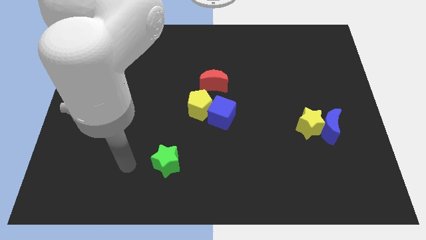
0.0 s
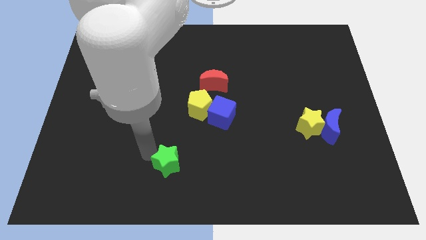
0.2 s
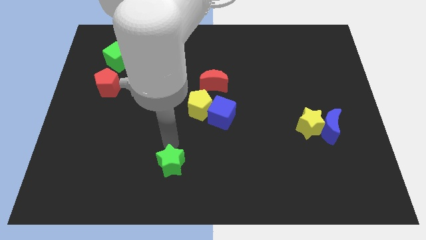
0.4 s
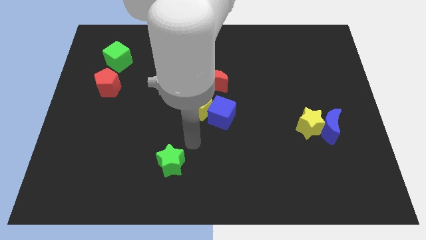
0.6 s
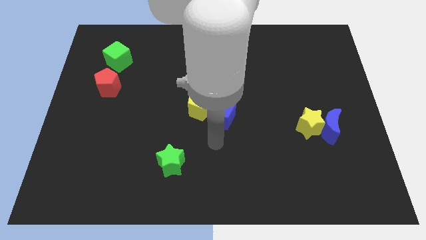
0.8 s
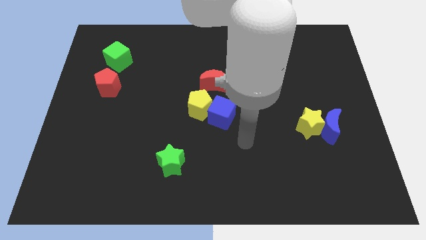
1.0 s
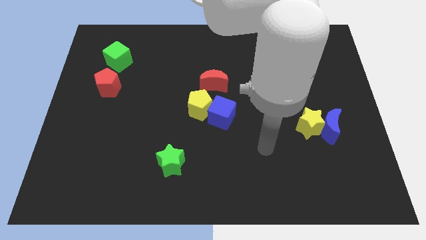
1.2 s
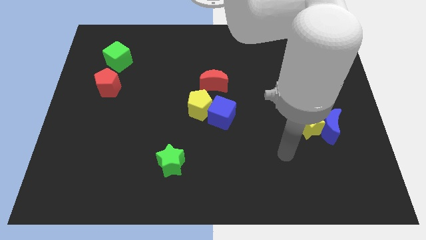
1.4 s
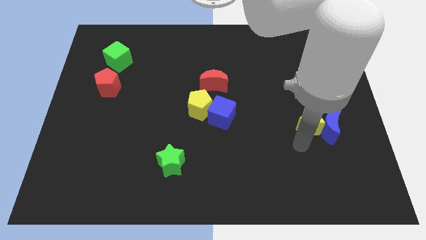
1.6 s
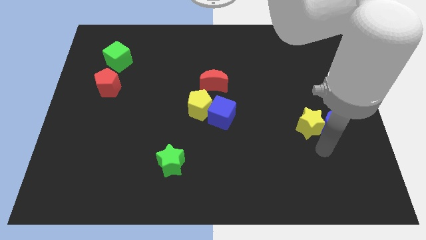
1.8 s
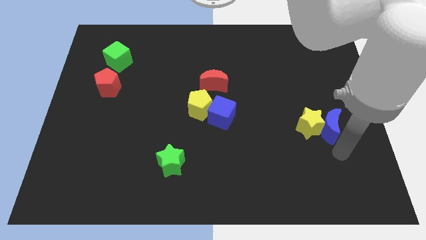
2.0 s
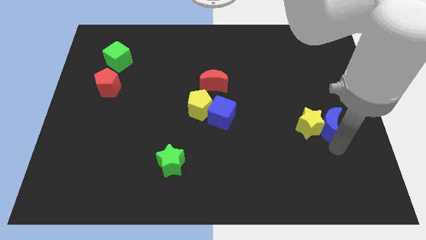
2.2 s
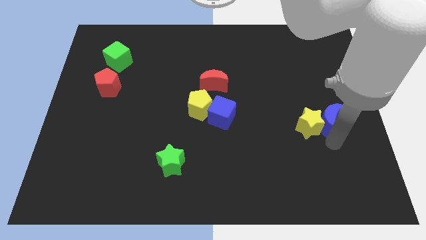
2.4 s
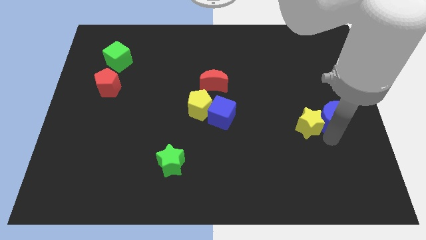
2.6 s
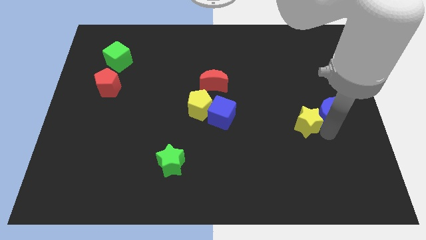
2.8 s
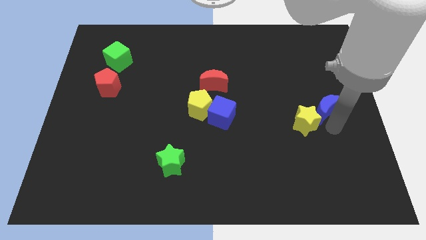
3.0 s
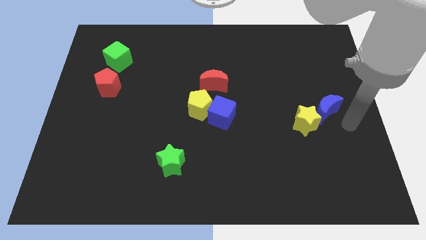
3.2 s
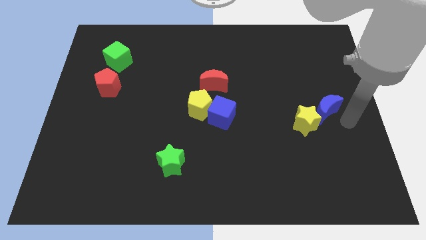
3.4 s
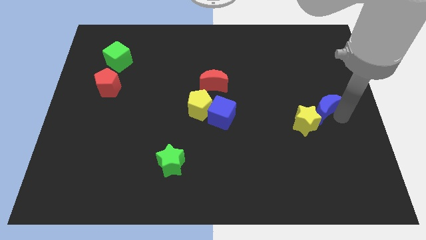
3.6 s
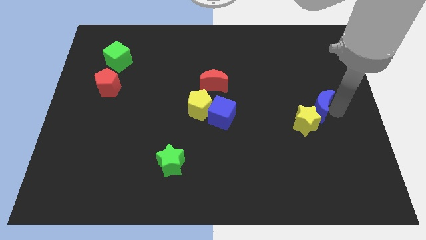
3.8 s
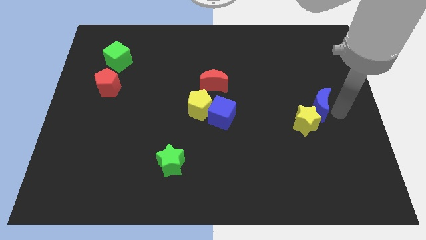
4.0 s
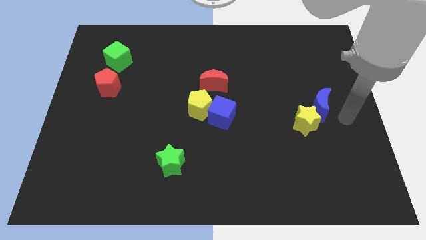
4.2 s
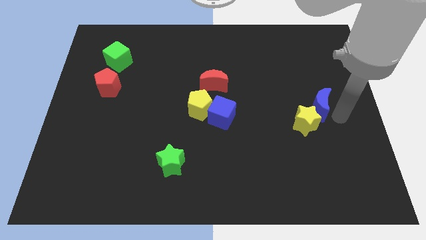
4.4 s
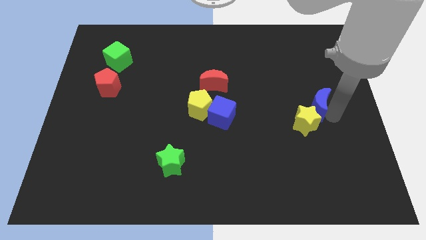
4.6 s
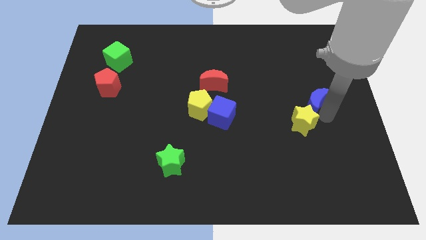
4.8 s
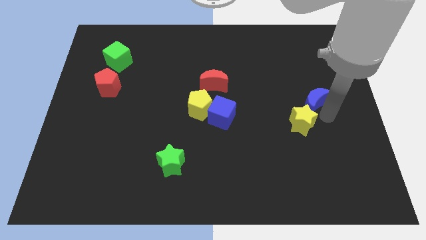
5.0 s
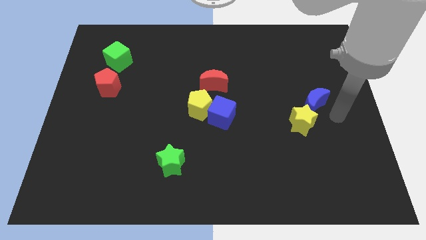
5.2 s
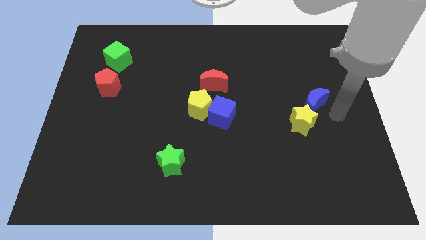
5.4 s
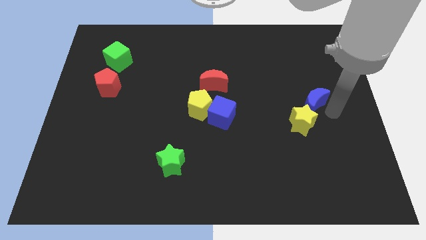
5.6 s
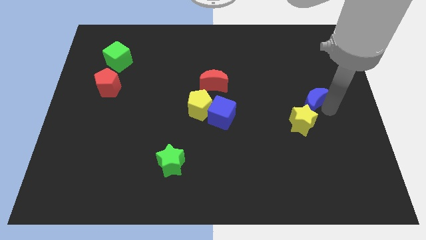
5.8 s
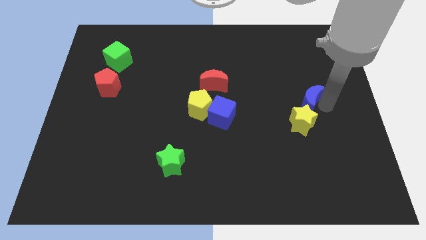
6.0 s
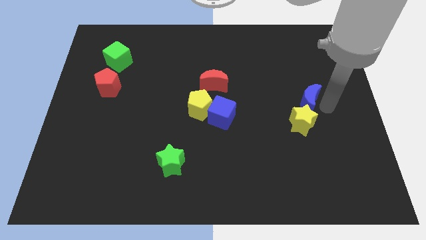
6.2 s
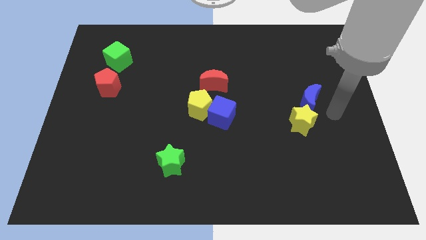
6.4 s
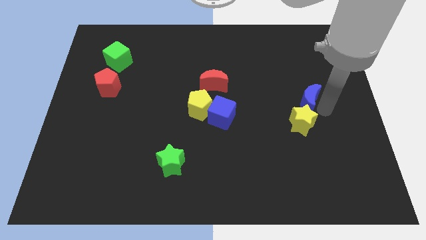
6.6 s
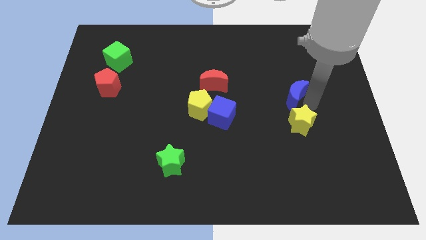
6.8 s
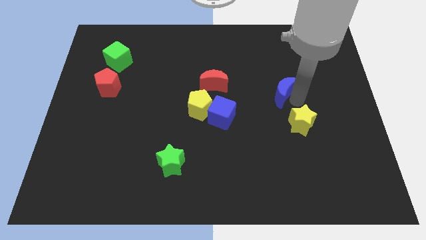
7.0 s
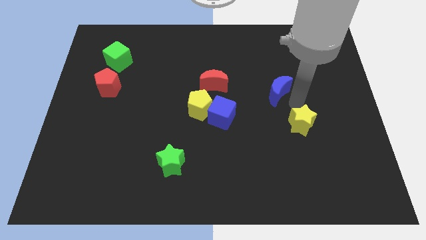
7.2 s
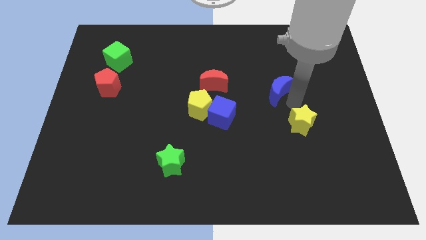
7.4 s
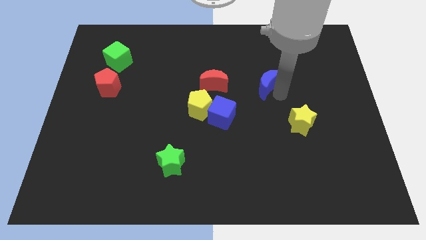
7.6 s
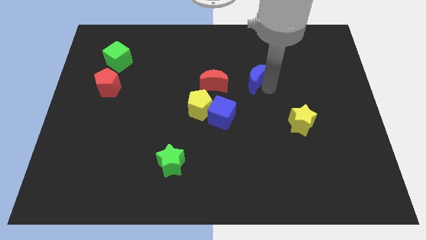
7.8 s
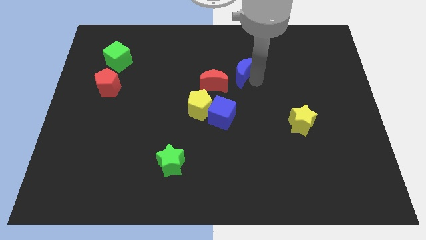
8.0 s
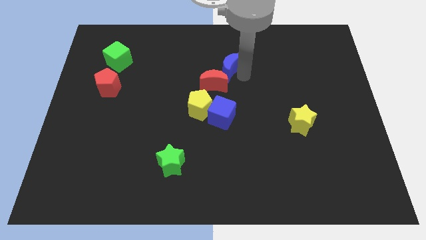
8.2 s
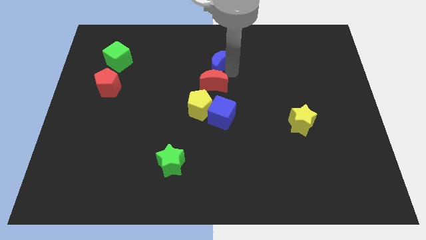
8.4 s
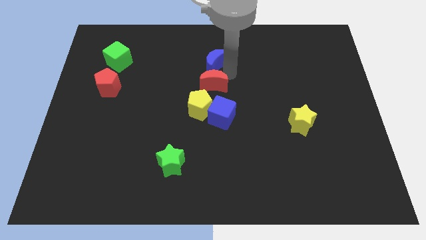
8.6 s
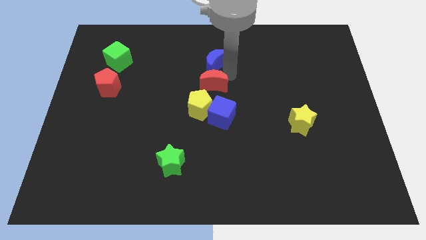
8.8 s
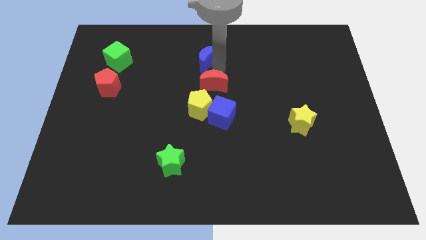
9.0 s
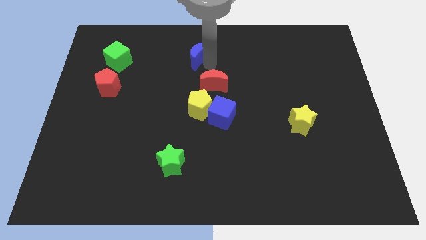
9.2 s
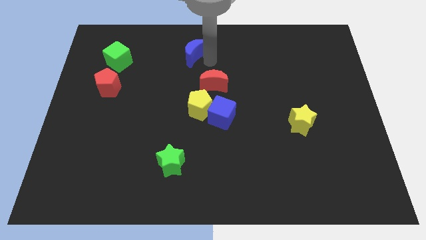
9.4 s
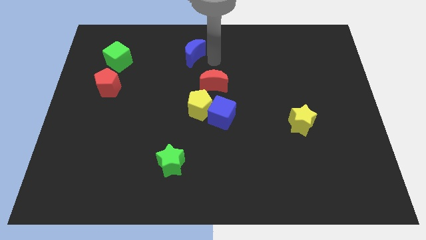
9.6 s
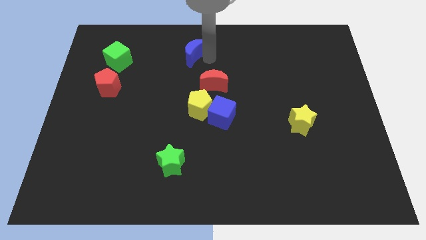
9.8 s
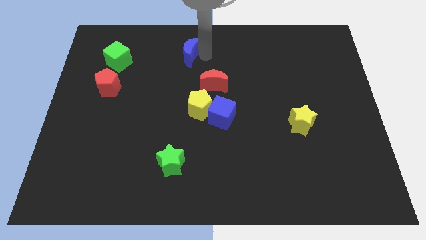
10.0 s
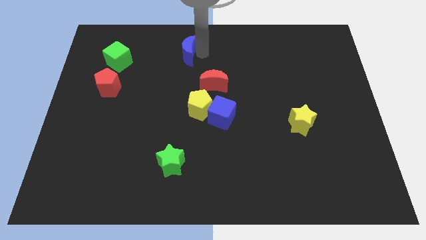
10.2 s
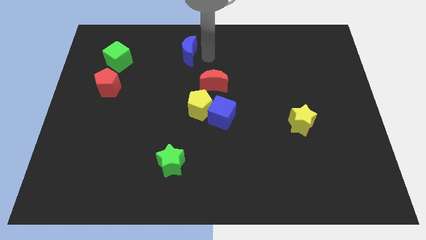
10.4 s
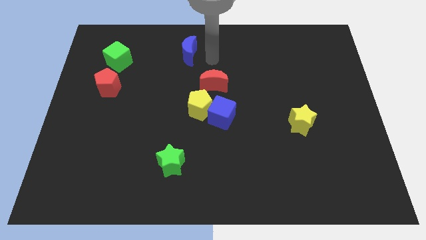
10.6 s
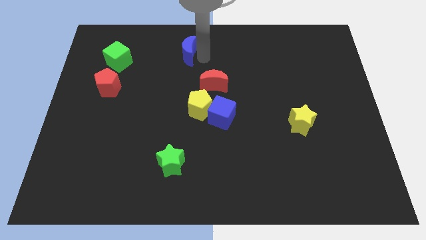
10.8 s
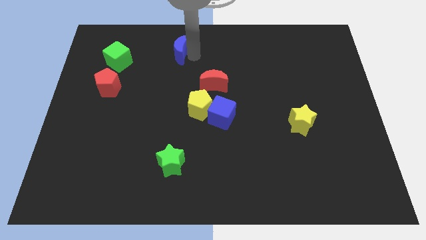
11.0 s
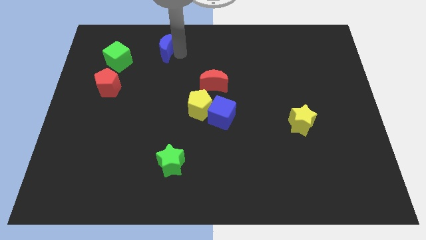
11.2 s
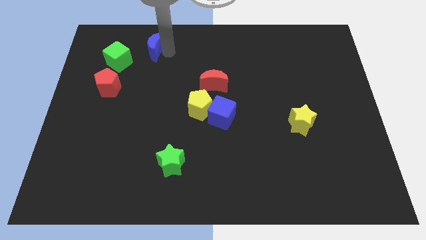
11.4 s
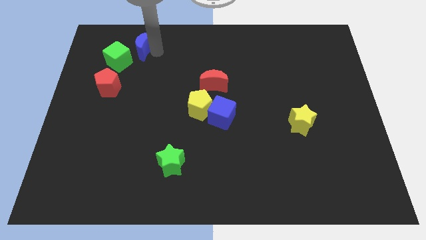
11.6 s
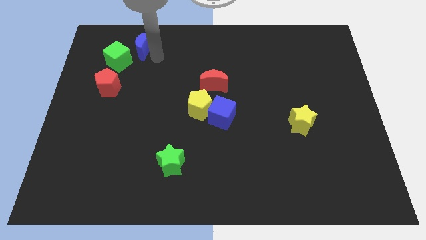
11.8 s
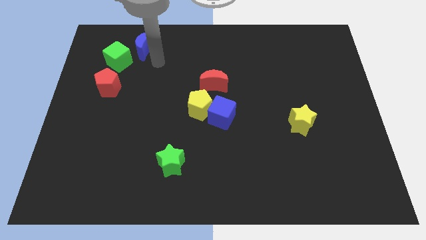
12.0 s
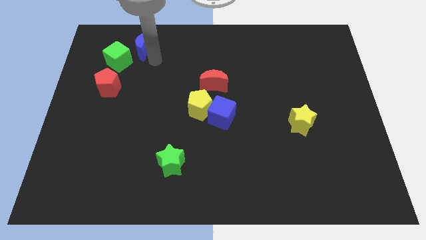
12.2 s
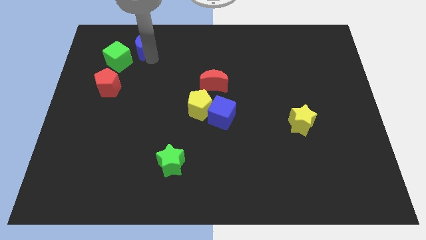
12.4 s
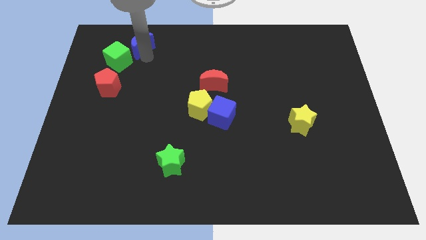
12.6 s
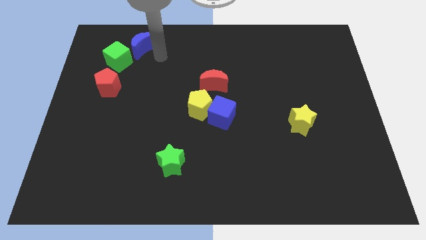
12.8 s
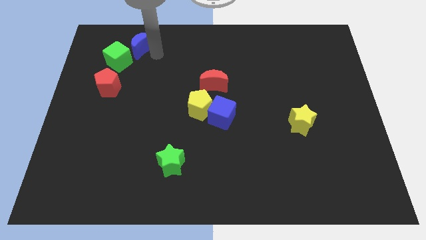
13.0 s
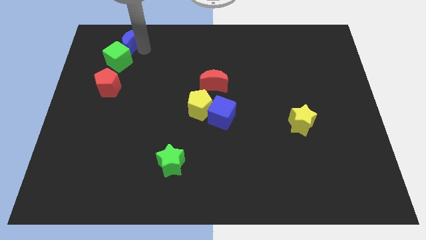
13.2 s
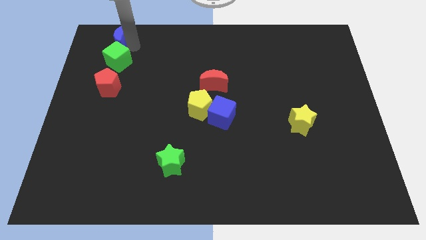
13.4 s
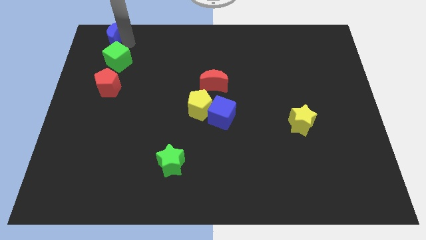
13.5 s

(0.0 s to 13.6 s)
slide the blue moon to the top left
